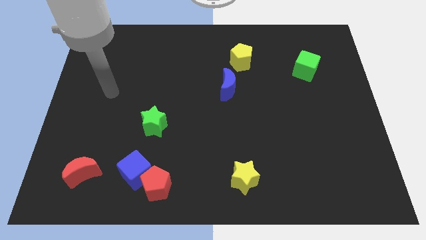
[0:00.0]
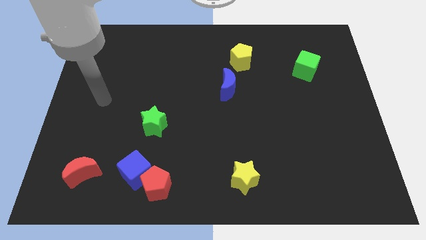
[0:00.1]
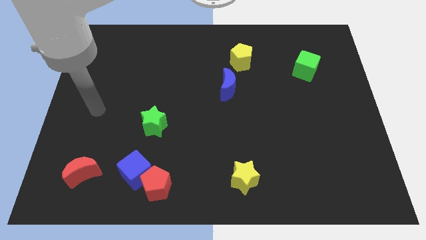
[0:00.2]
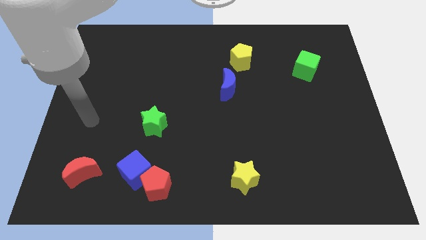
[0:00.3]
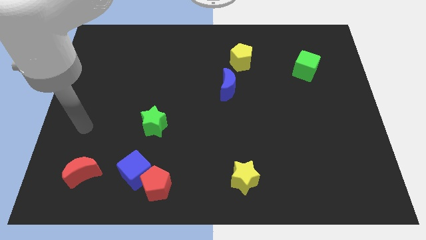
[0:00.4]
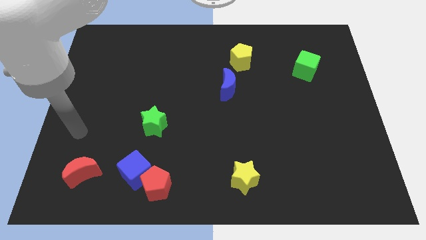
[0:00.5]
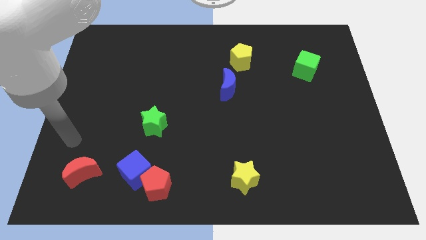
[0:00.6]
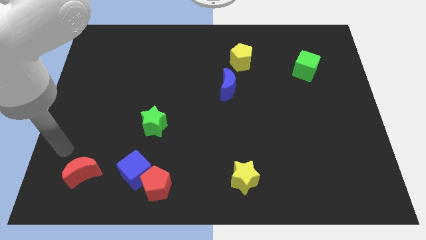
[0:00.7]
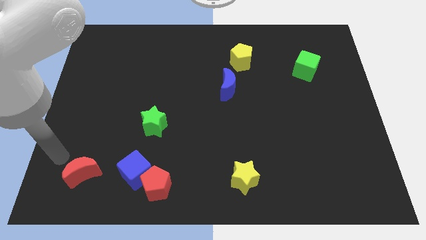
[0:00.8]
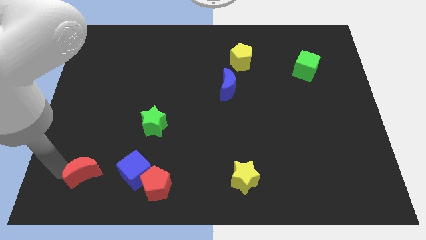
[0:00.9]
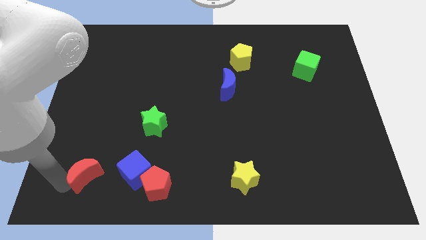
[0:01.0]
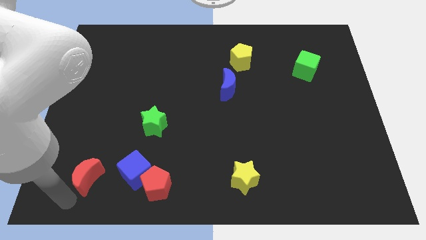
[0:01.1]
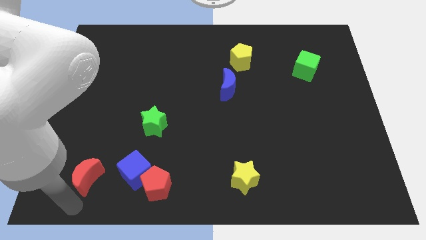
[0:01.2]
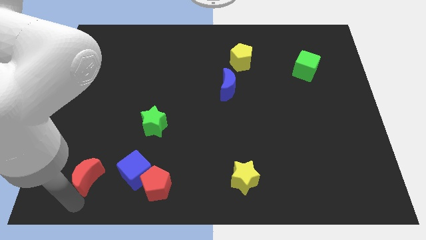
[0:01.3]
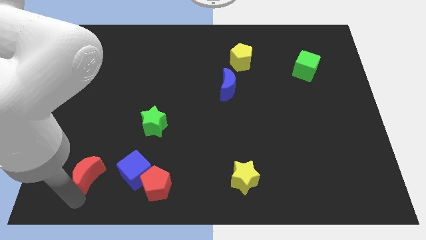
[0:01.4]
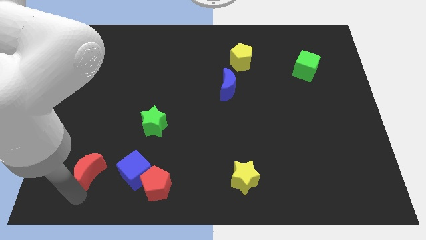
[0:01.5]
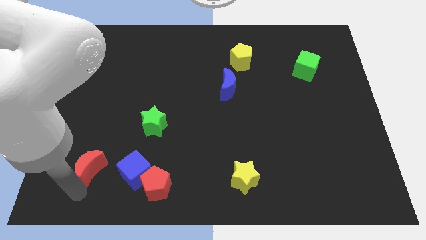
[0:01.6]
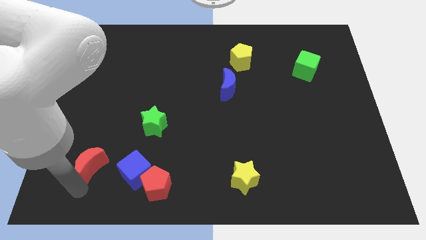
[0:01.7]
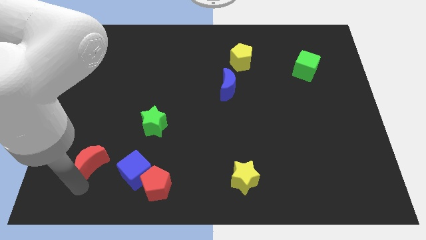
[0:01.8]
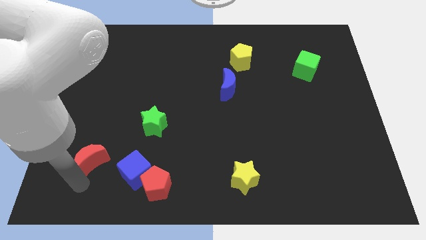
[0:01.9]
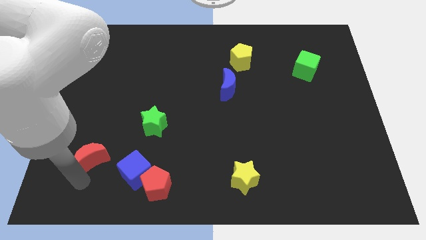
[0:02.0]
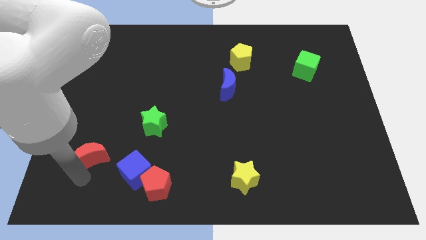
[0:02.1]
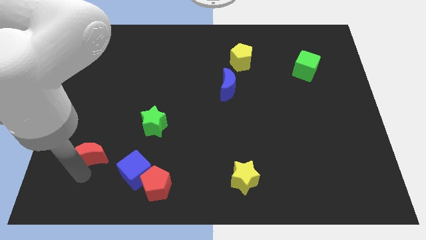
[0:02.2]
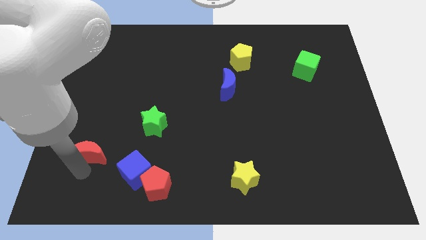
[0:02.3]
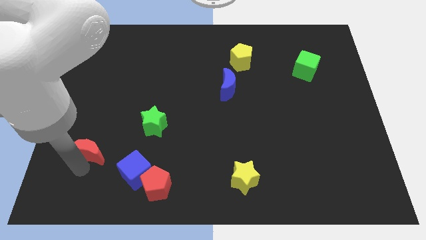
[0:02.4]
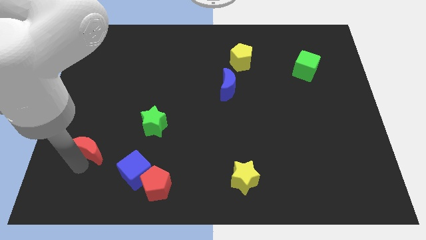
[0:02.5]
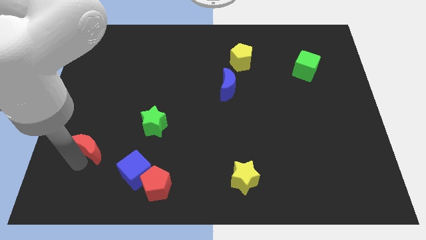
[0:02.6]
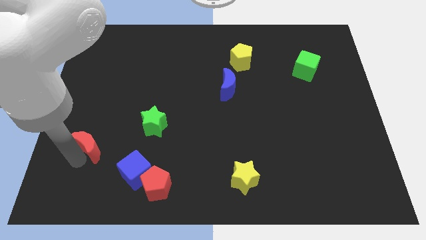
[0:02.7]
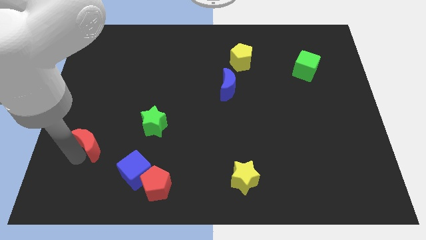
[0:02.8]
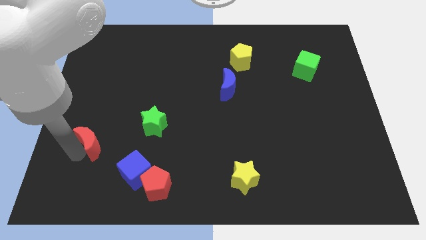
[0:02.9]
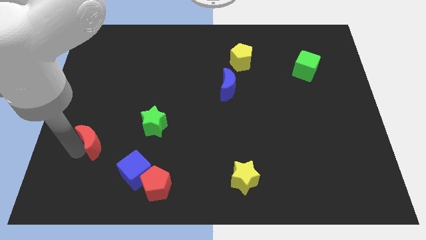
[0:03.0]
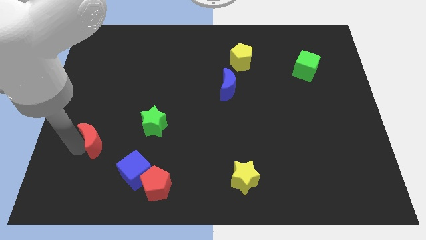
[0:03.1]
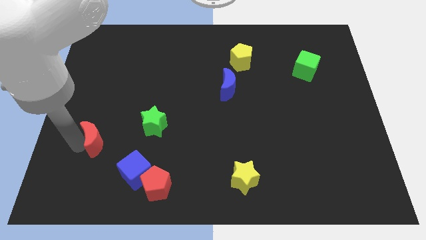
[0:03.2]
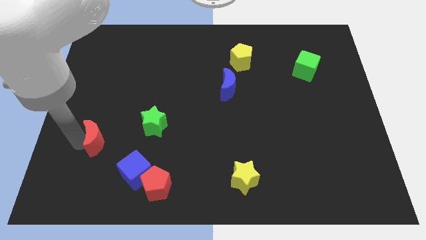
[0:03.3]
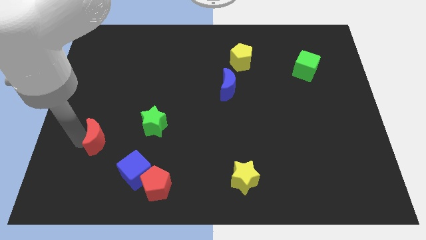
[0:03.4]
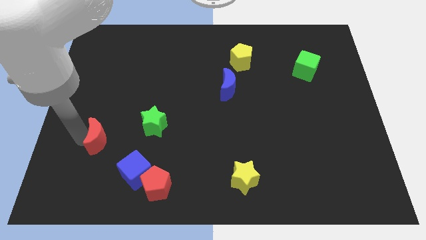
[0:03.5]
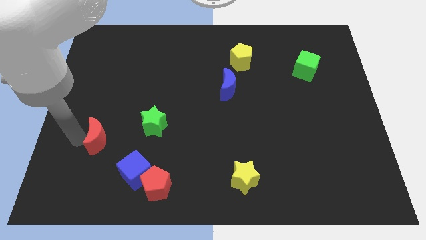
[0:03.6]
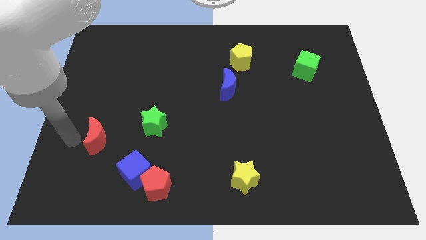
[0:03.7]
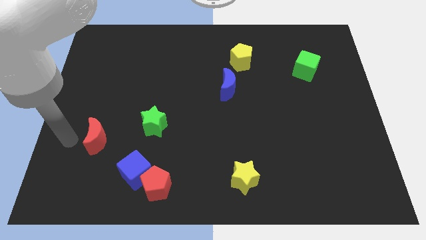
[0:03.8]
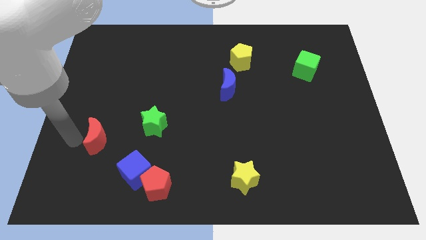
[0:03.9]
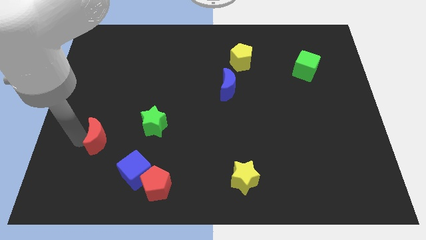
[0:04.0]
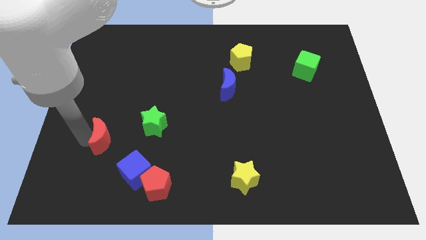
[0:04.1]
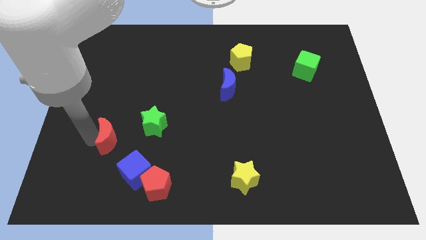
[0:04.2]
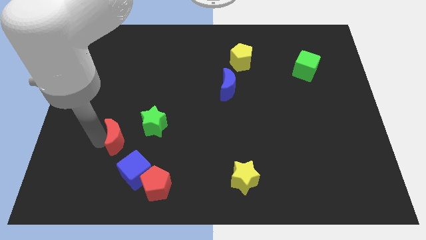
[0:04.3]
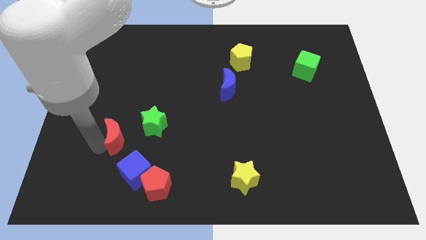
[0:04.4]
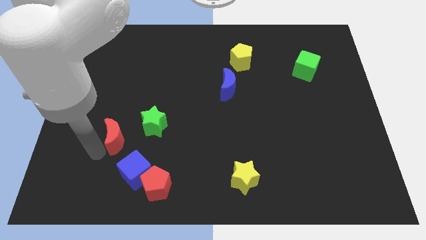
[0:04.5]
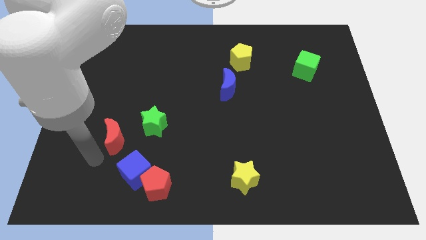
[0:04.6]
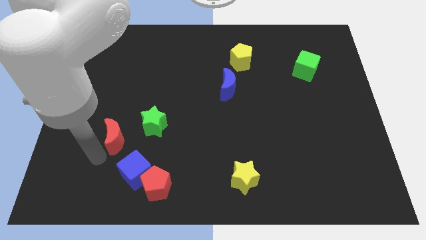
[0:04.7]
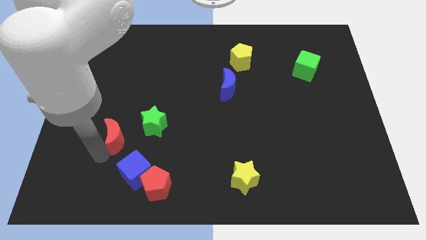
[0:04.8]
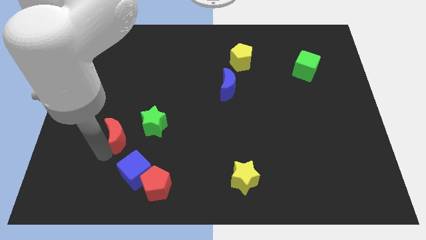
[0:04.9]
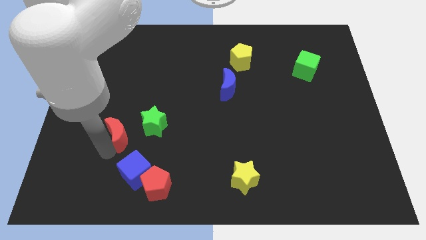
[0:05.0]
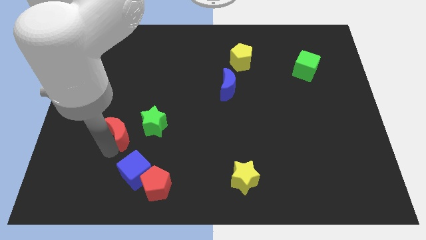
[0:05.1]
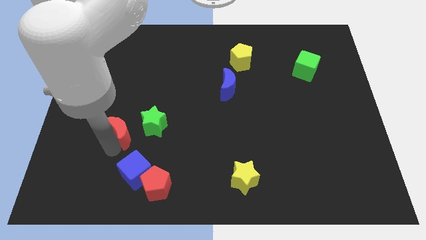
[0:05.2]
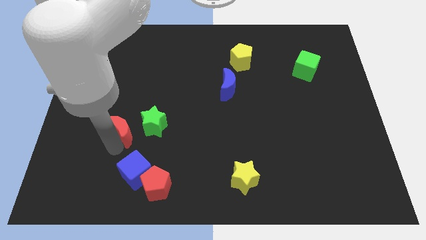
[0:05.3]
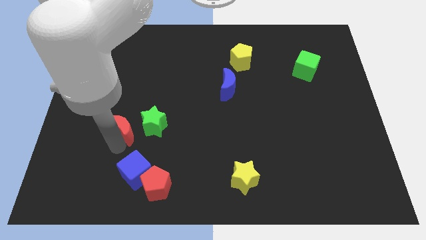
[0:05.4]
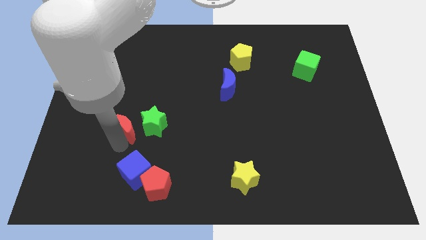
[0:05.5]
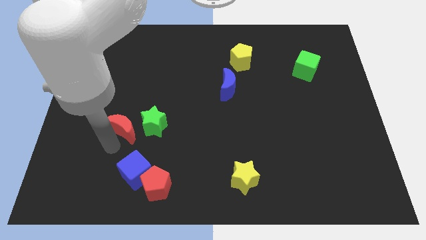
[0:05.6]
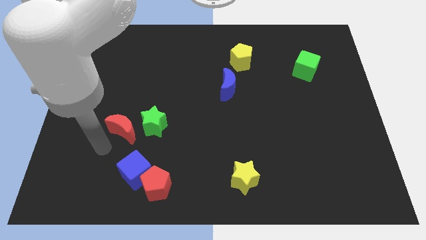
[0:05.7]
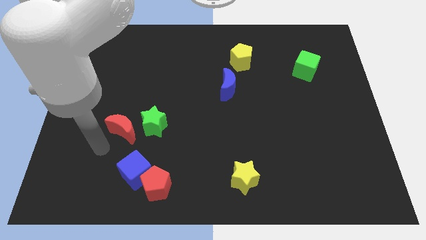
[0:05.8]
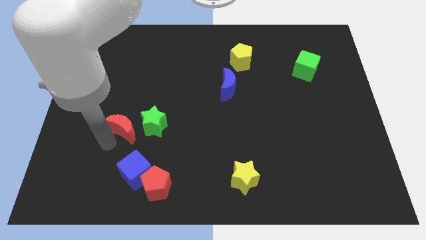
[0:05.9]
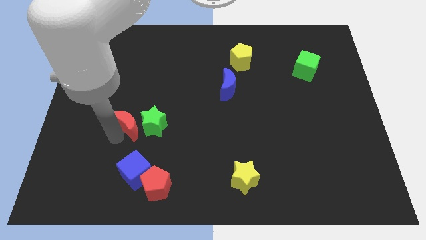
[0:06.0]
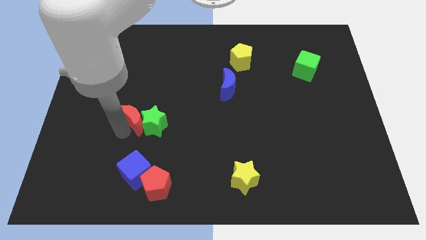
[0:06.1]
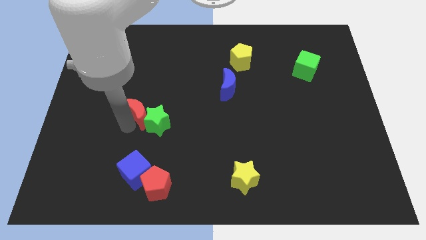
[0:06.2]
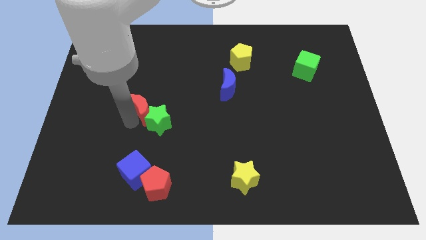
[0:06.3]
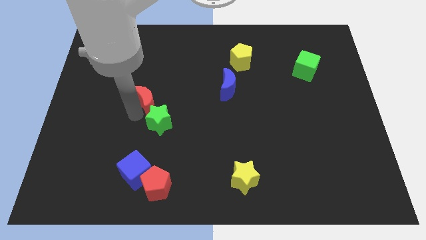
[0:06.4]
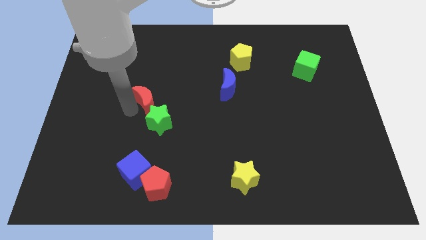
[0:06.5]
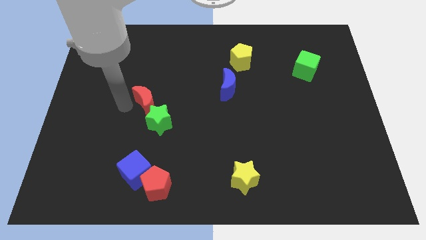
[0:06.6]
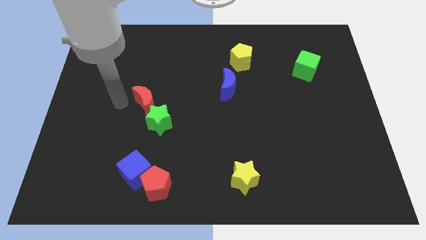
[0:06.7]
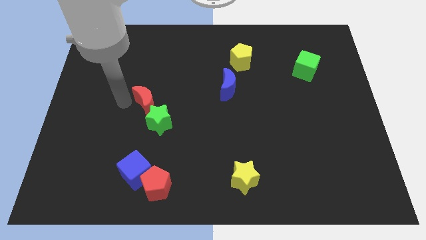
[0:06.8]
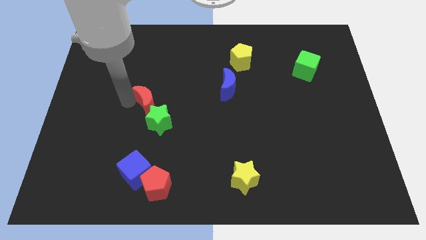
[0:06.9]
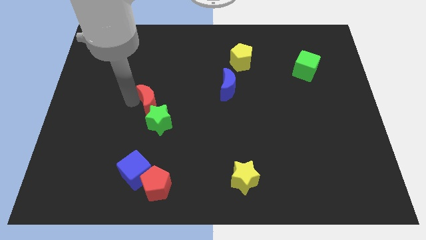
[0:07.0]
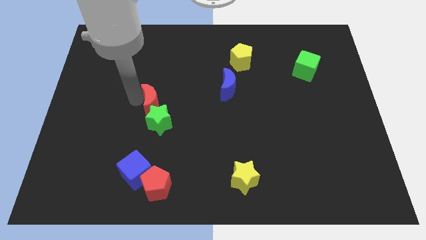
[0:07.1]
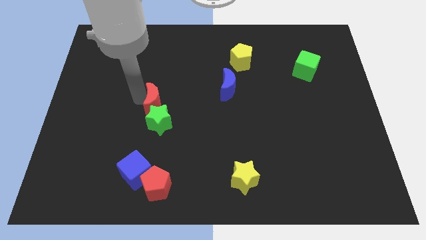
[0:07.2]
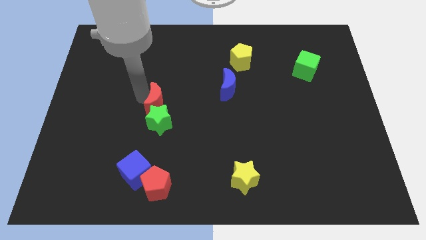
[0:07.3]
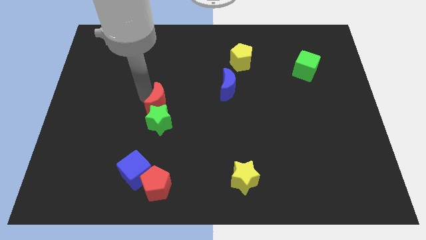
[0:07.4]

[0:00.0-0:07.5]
move the red moon to the top right side of the green star

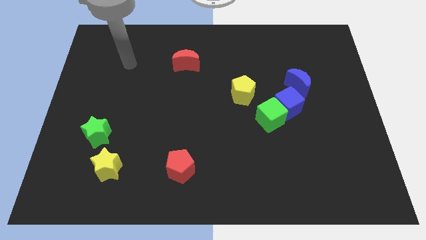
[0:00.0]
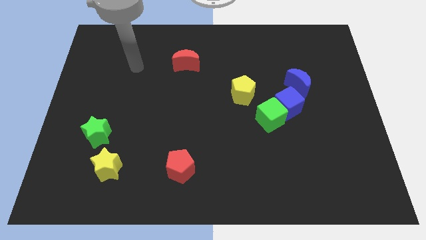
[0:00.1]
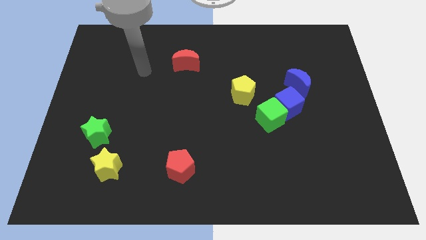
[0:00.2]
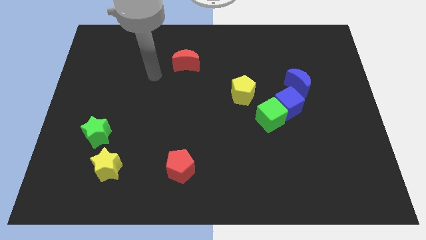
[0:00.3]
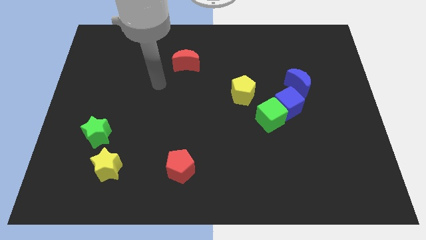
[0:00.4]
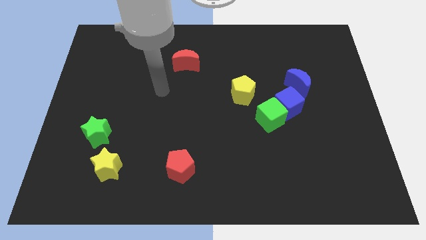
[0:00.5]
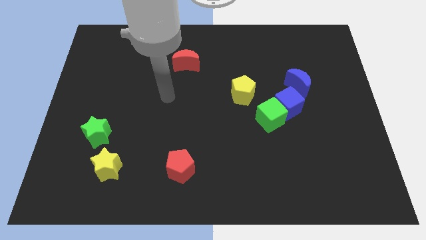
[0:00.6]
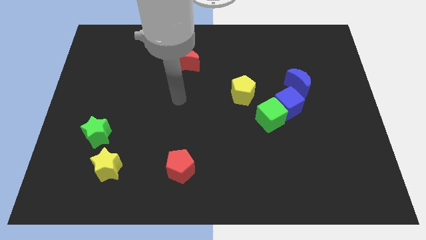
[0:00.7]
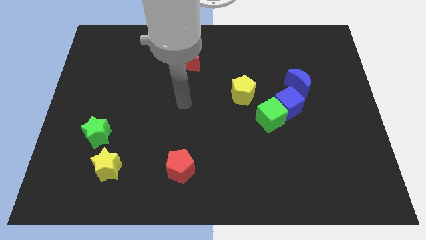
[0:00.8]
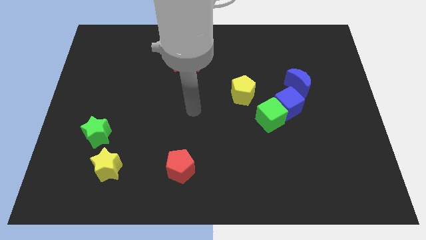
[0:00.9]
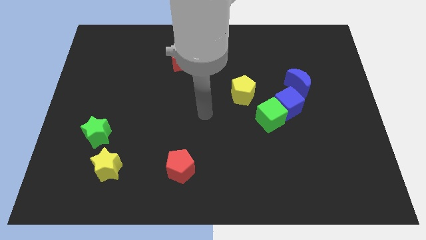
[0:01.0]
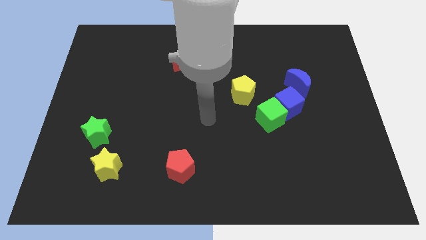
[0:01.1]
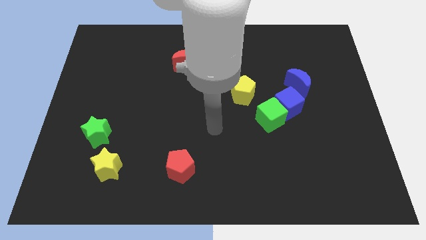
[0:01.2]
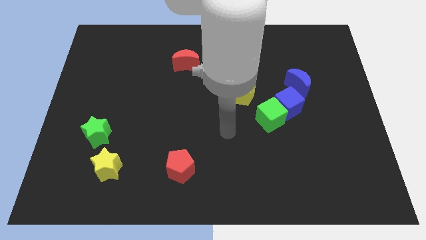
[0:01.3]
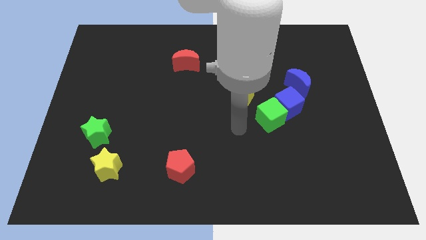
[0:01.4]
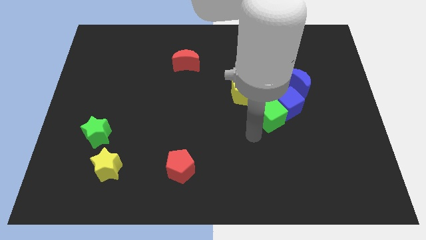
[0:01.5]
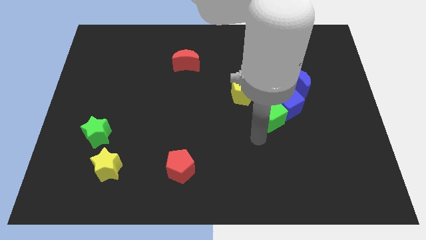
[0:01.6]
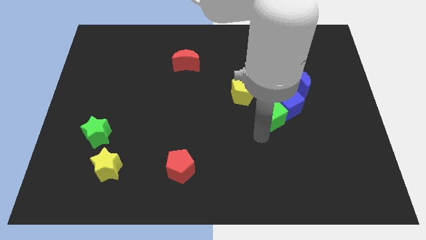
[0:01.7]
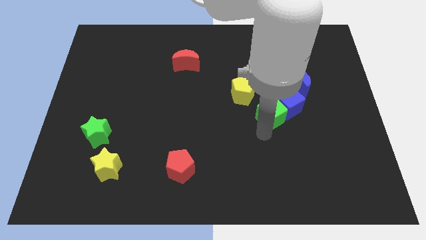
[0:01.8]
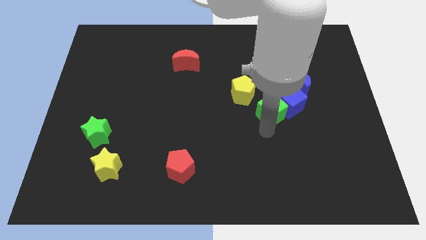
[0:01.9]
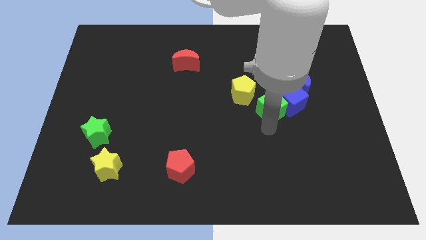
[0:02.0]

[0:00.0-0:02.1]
put the green cube to the right of the yellow pentagon
